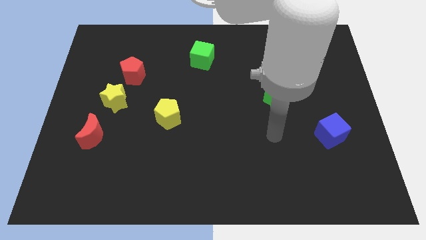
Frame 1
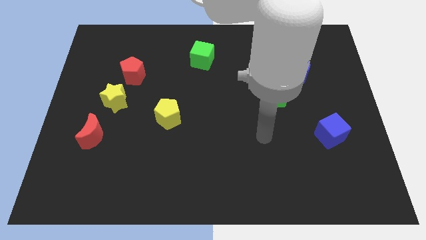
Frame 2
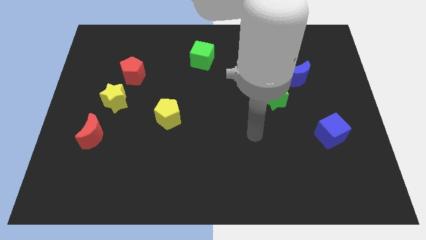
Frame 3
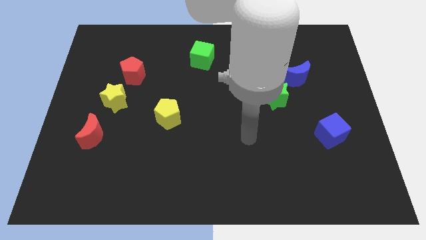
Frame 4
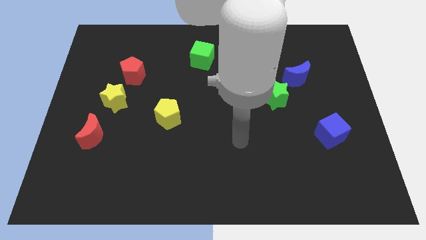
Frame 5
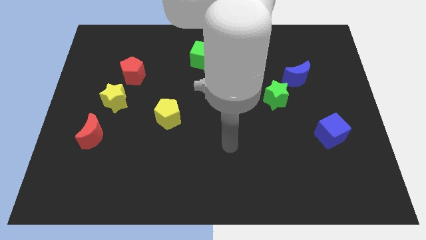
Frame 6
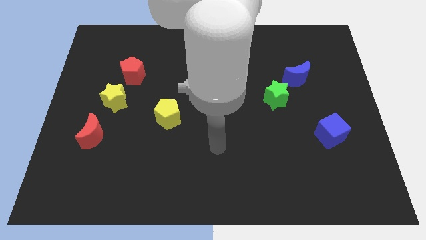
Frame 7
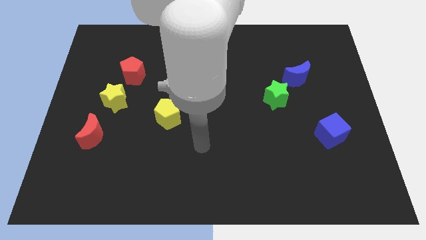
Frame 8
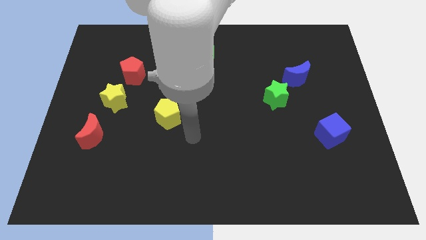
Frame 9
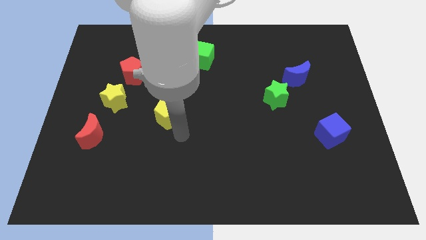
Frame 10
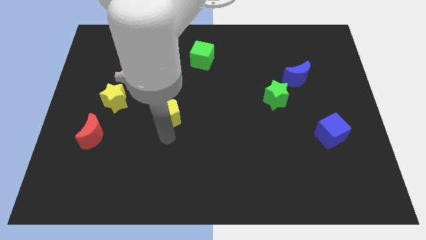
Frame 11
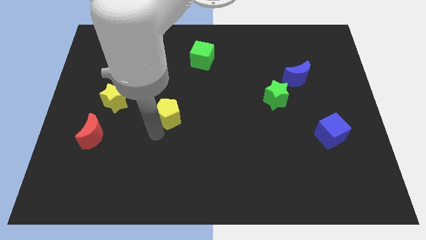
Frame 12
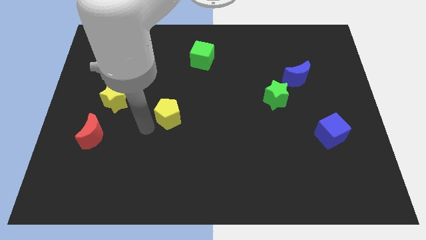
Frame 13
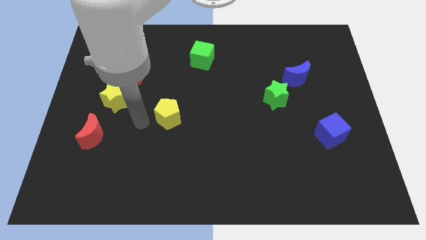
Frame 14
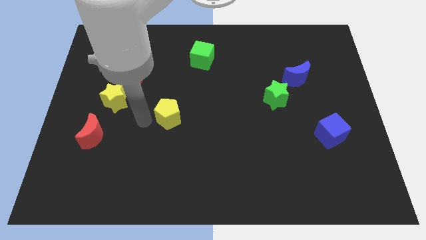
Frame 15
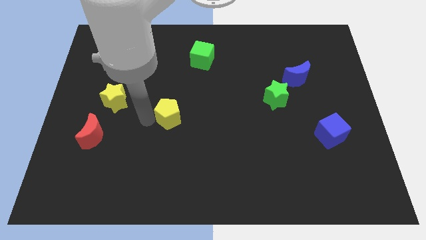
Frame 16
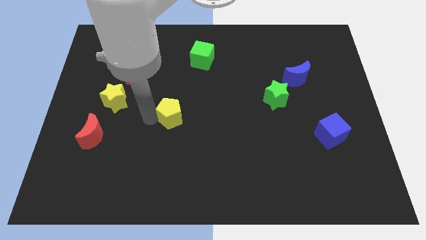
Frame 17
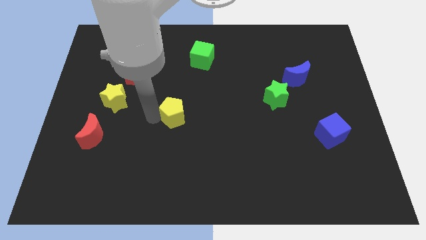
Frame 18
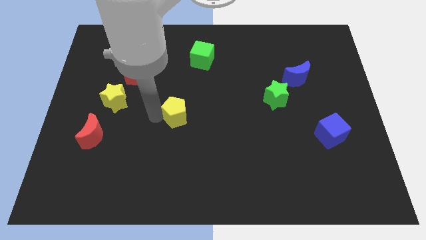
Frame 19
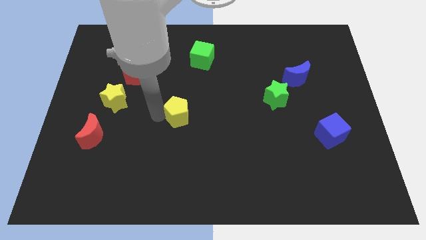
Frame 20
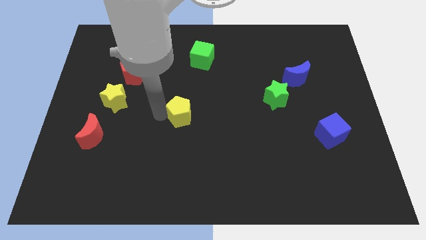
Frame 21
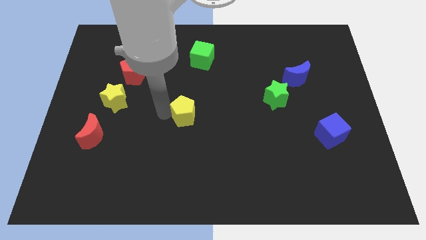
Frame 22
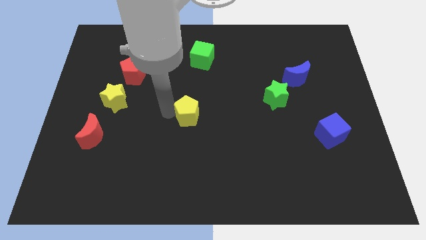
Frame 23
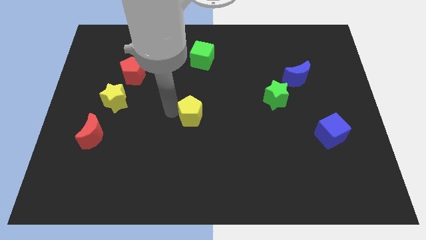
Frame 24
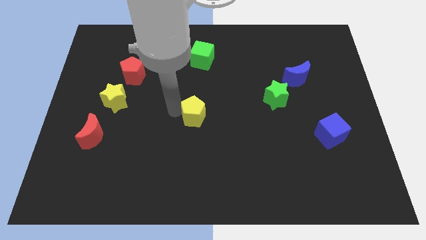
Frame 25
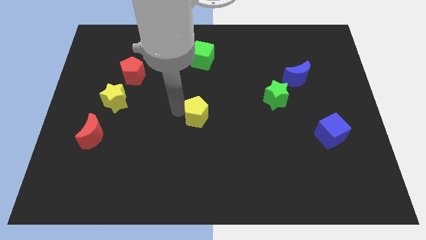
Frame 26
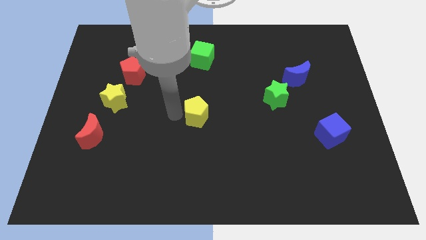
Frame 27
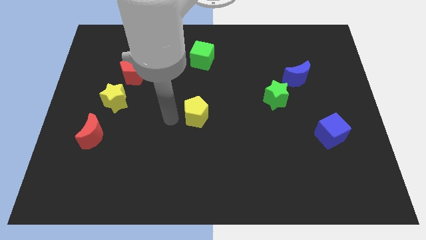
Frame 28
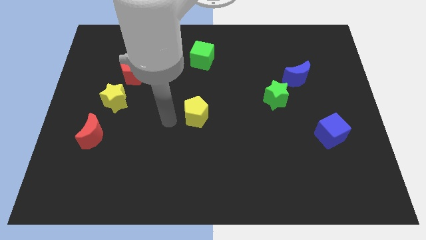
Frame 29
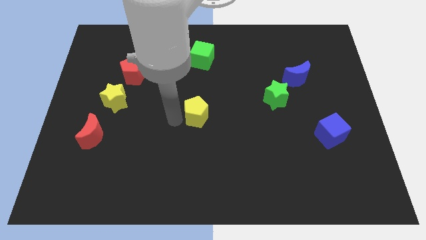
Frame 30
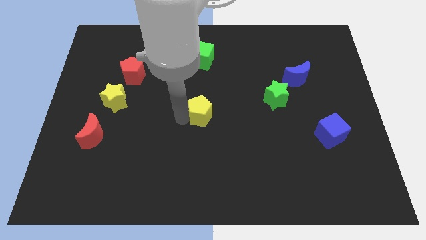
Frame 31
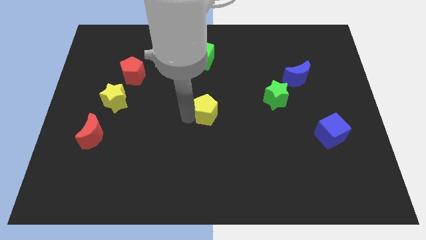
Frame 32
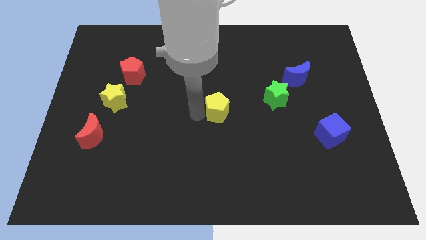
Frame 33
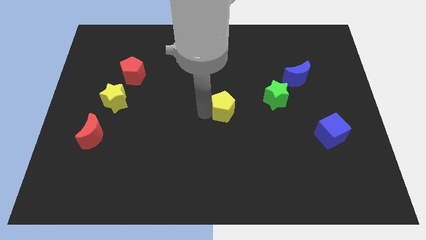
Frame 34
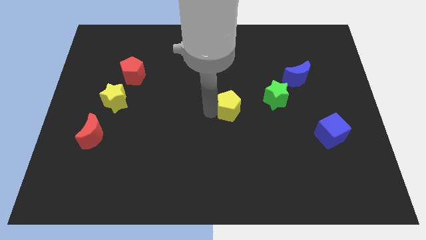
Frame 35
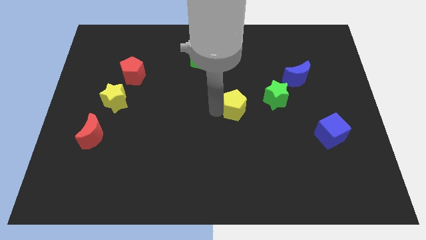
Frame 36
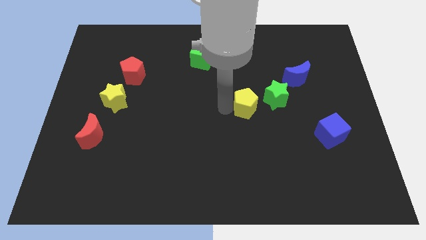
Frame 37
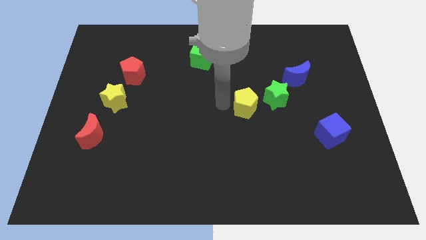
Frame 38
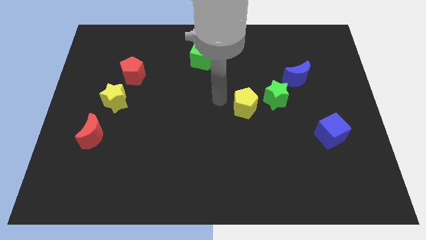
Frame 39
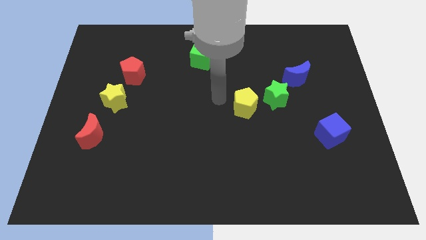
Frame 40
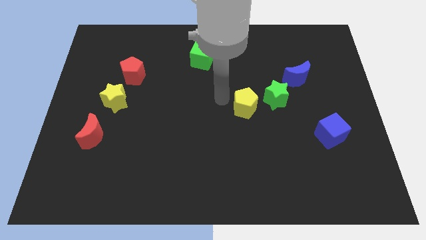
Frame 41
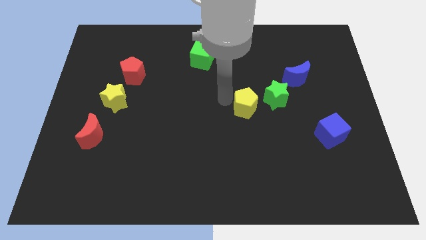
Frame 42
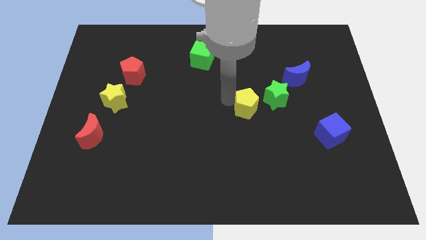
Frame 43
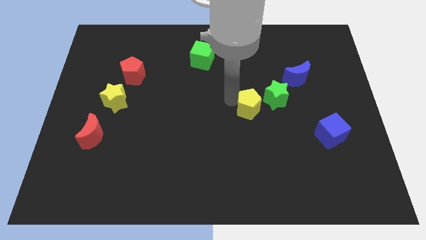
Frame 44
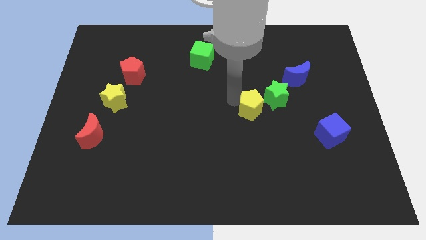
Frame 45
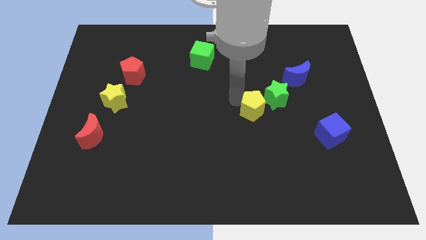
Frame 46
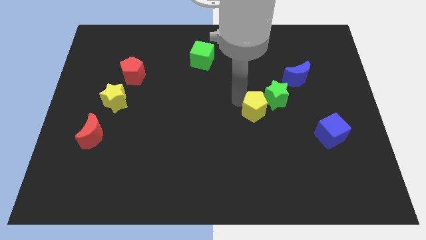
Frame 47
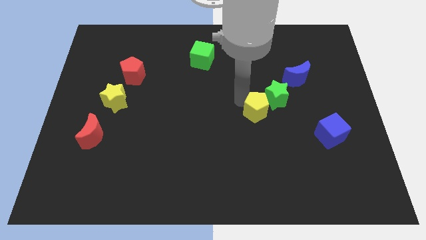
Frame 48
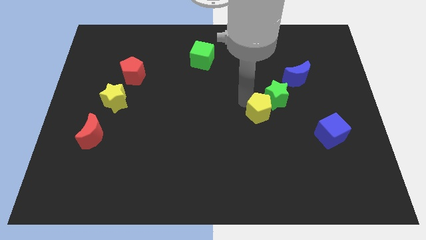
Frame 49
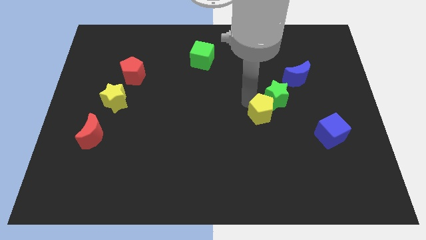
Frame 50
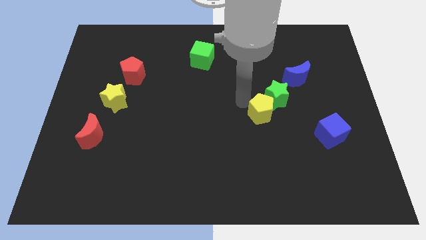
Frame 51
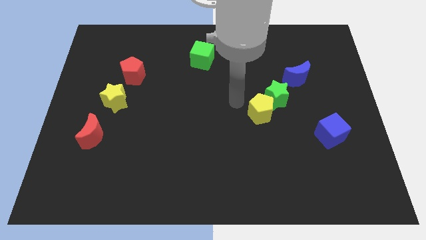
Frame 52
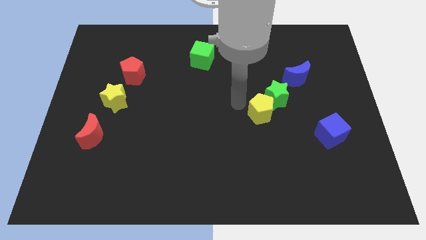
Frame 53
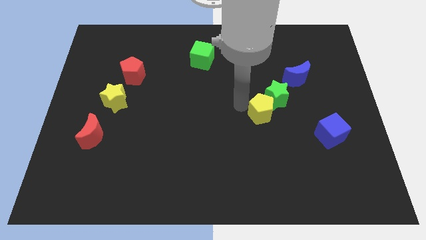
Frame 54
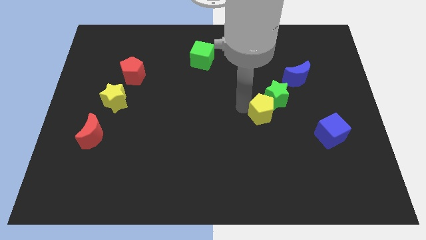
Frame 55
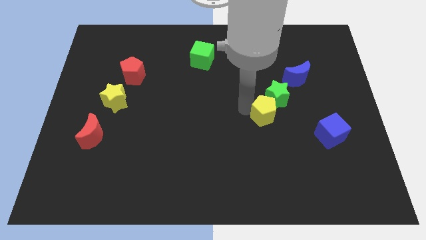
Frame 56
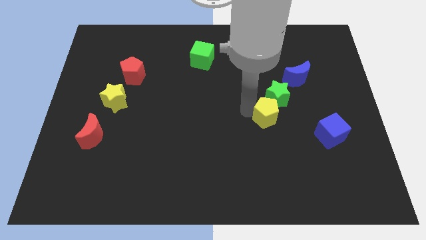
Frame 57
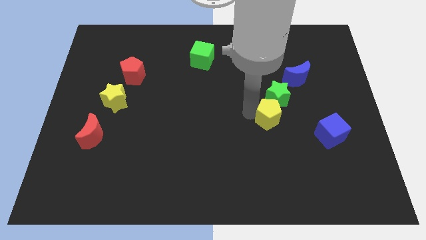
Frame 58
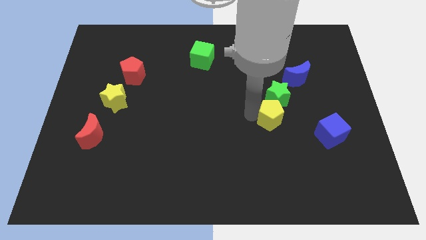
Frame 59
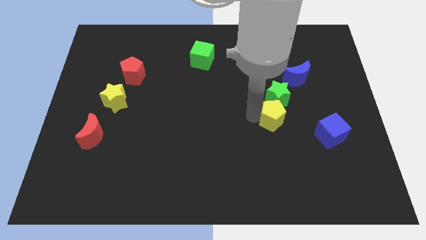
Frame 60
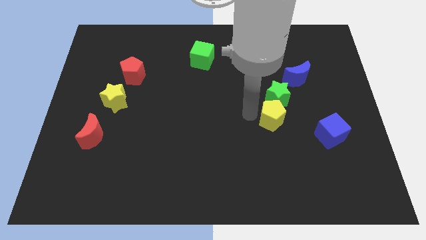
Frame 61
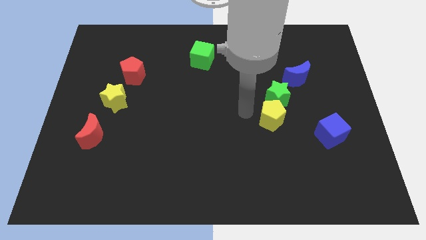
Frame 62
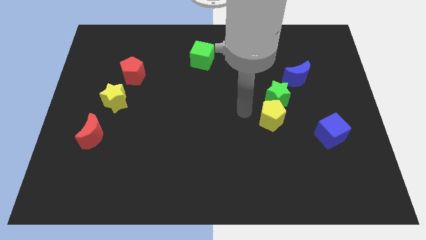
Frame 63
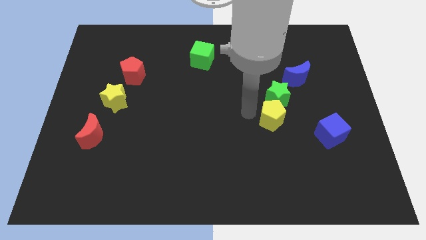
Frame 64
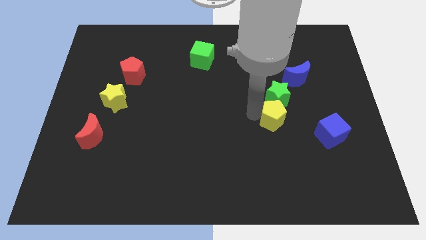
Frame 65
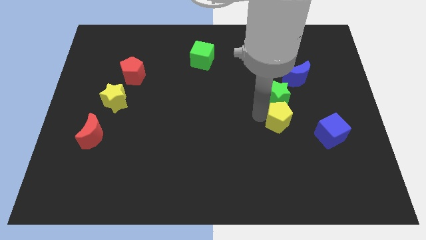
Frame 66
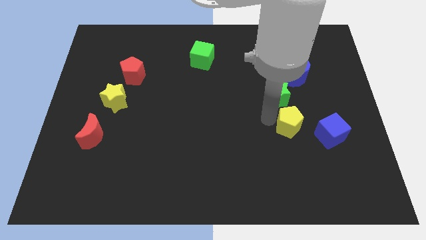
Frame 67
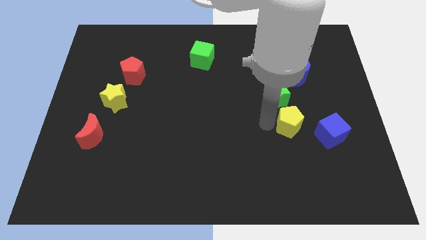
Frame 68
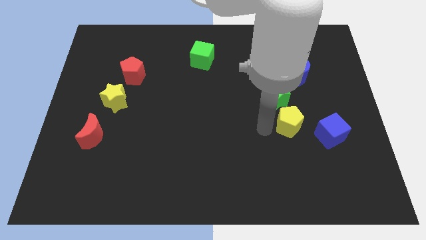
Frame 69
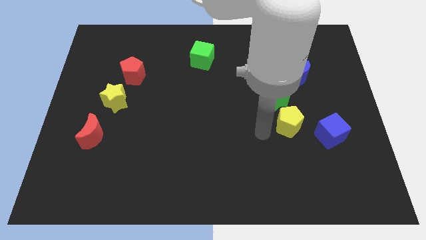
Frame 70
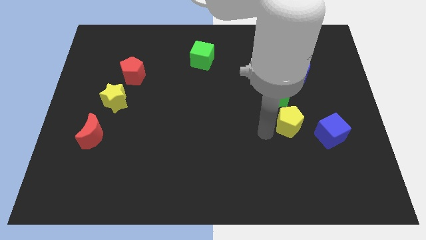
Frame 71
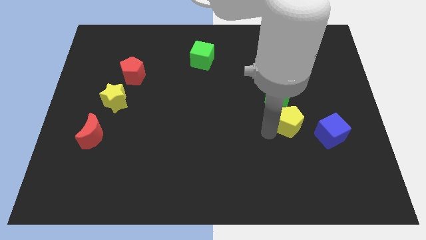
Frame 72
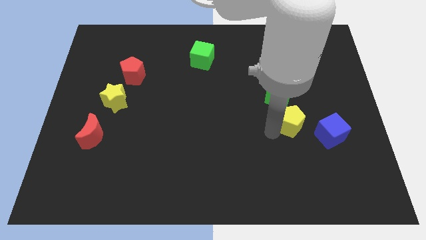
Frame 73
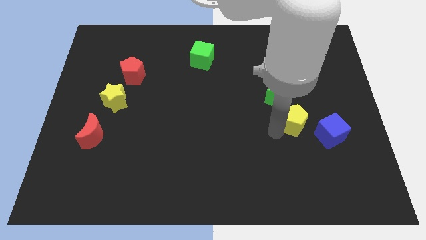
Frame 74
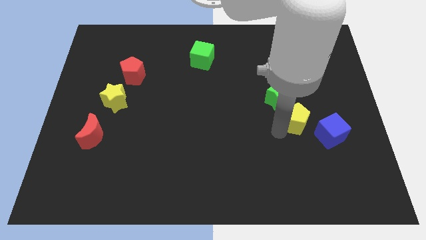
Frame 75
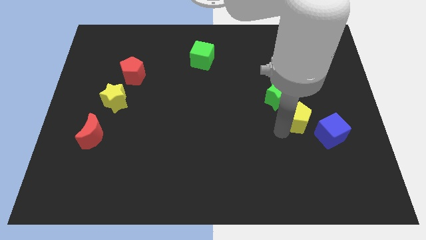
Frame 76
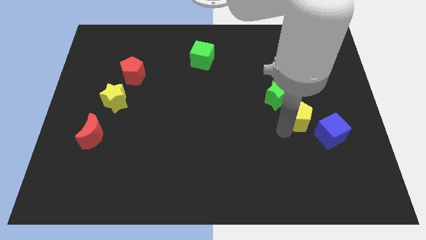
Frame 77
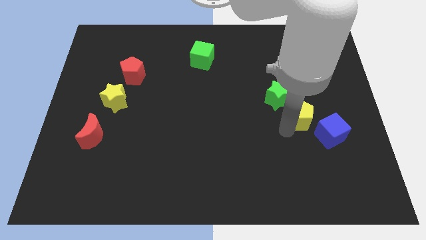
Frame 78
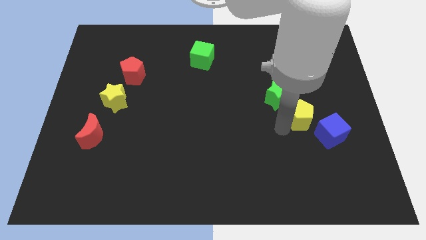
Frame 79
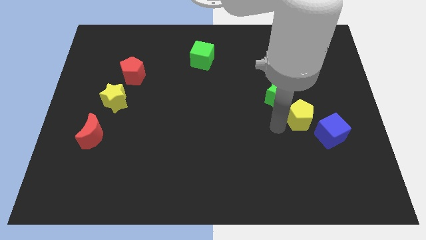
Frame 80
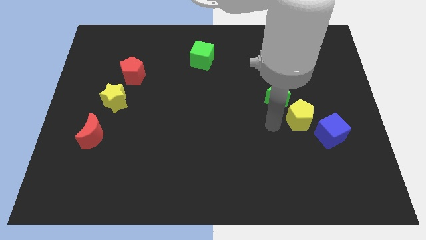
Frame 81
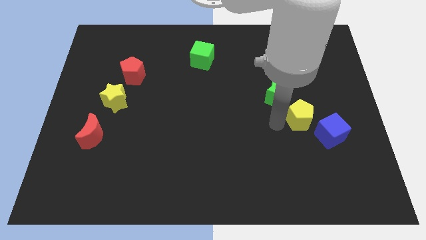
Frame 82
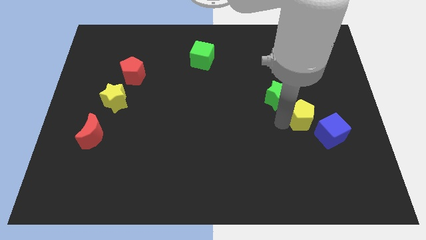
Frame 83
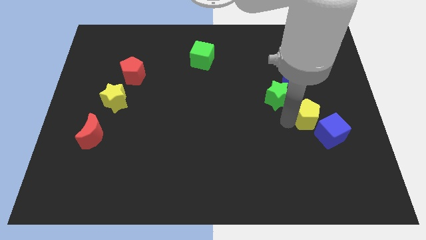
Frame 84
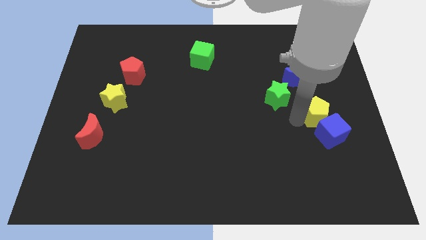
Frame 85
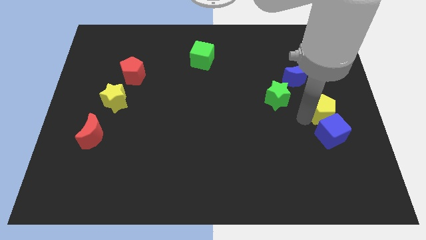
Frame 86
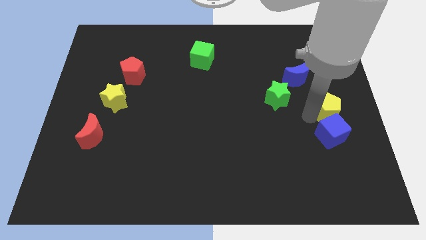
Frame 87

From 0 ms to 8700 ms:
move the yellow pentagon to the right side of the board
